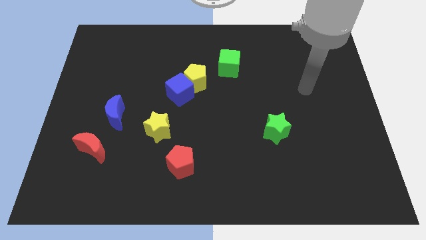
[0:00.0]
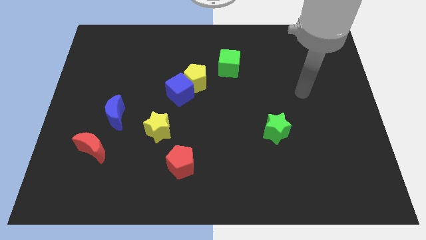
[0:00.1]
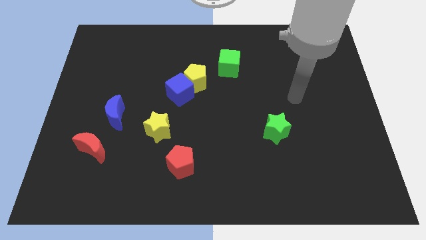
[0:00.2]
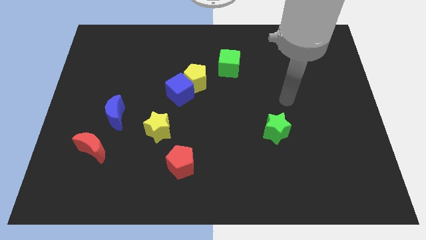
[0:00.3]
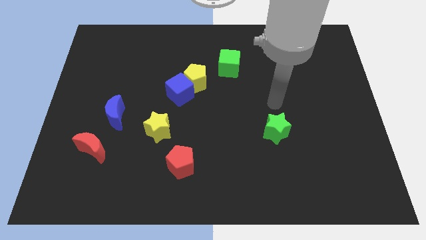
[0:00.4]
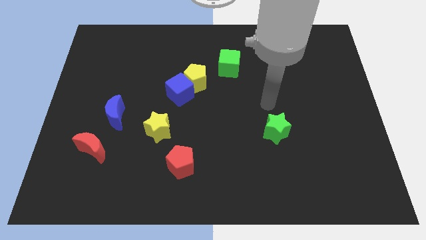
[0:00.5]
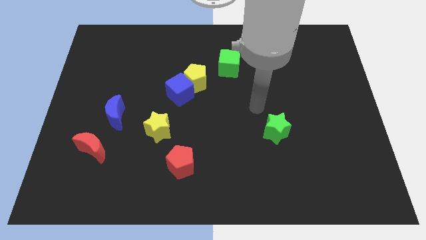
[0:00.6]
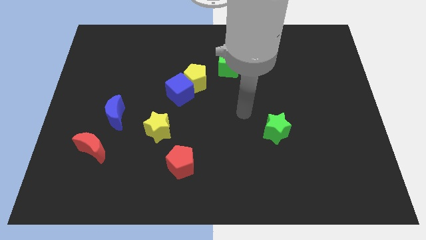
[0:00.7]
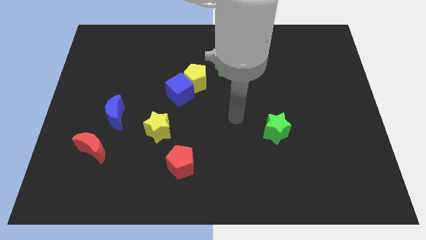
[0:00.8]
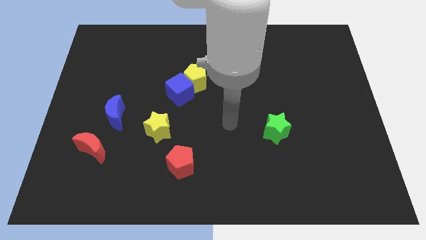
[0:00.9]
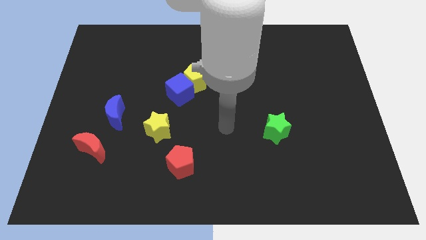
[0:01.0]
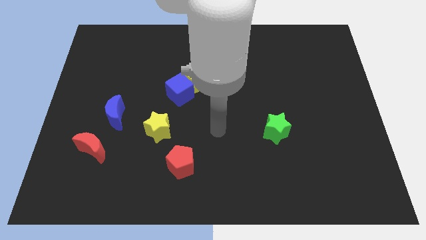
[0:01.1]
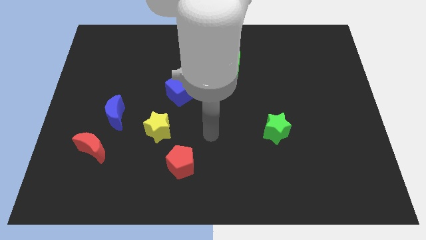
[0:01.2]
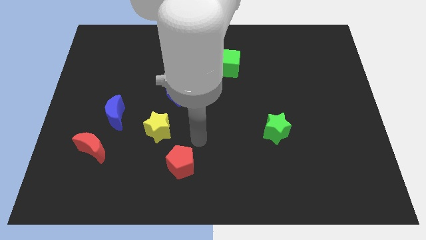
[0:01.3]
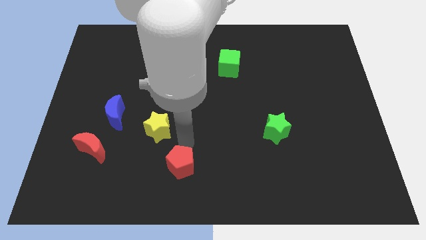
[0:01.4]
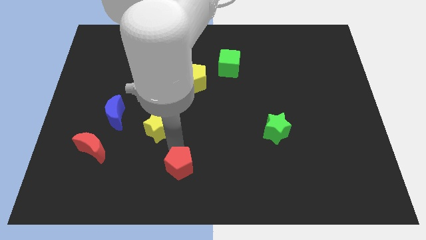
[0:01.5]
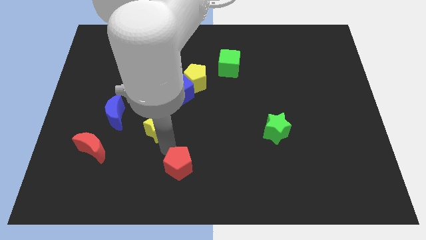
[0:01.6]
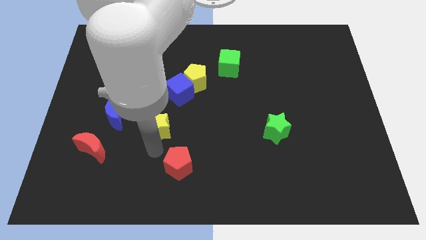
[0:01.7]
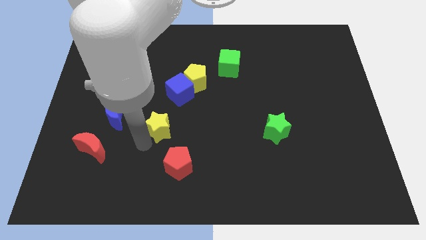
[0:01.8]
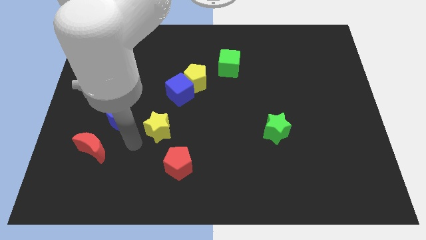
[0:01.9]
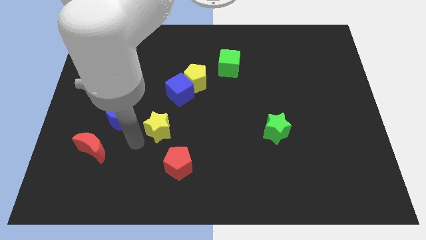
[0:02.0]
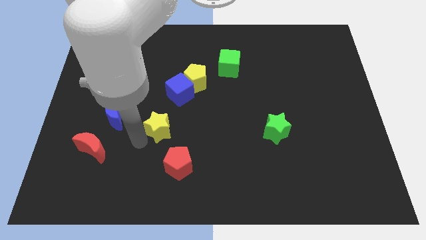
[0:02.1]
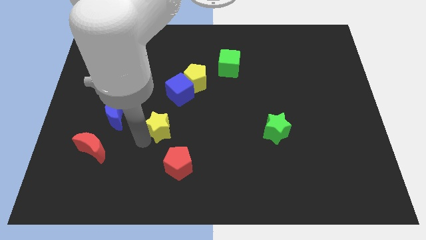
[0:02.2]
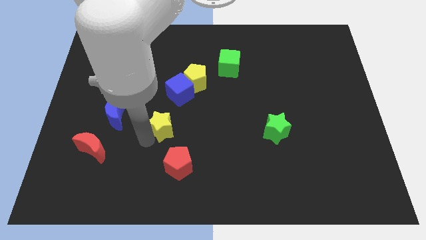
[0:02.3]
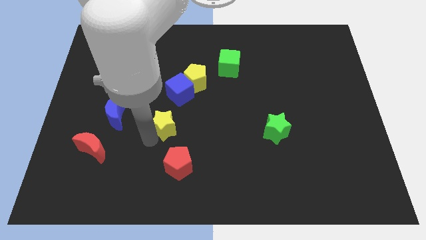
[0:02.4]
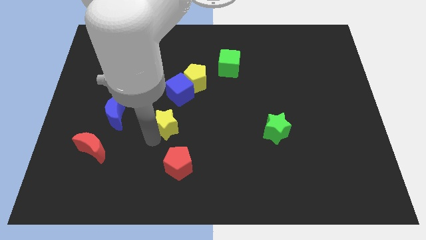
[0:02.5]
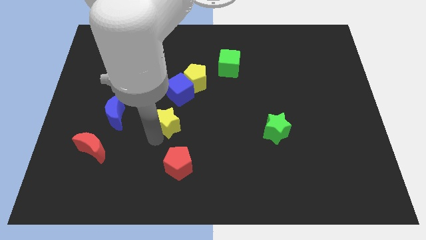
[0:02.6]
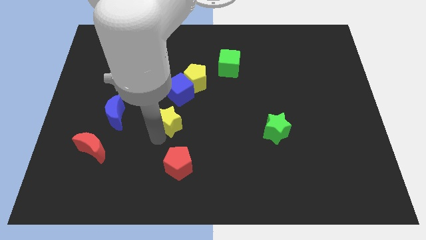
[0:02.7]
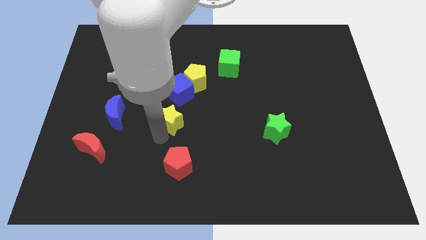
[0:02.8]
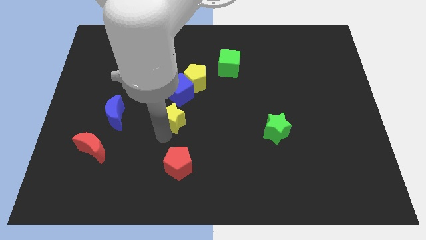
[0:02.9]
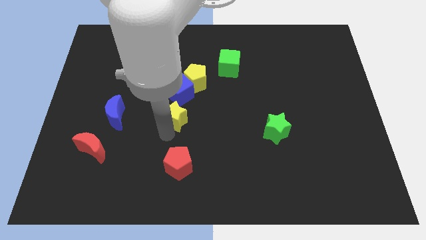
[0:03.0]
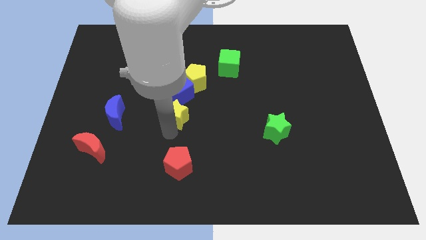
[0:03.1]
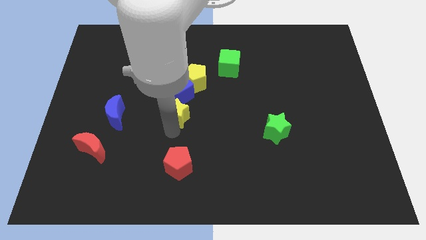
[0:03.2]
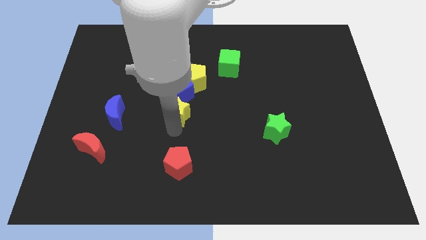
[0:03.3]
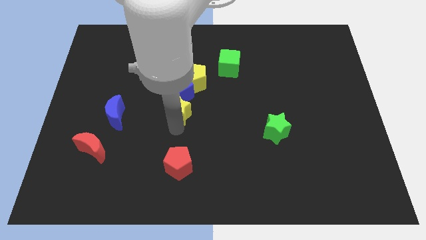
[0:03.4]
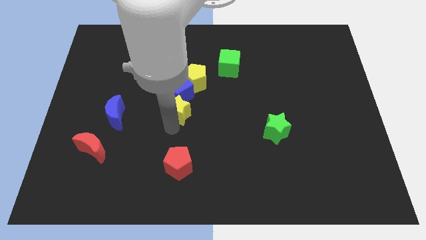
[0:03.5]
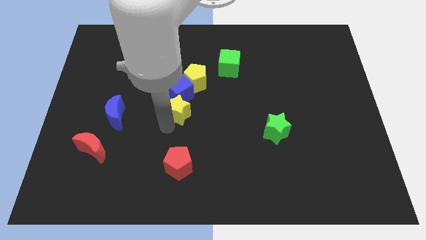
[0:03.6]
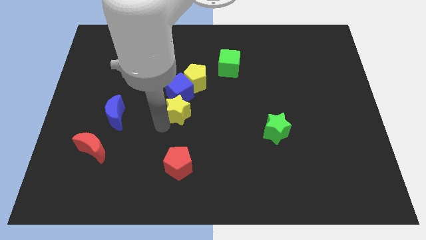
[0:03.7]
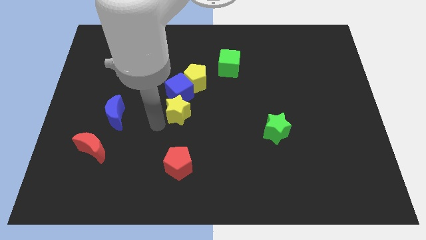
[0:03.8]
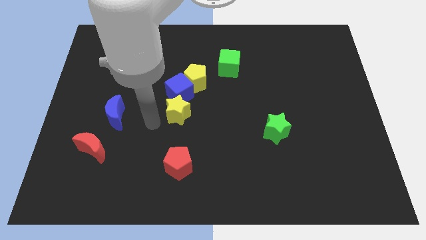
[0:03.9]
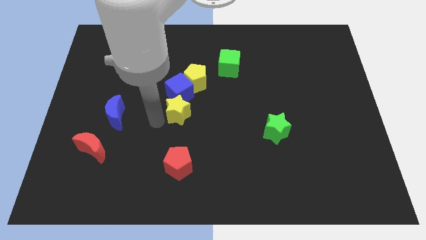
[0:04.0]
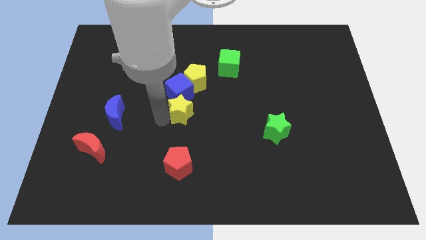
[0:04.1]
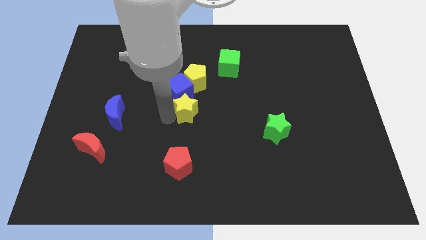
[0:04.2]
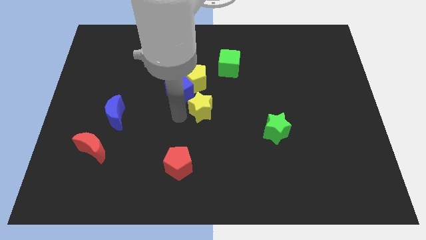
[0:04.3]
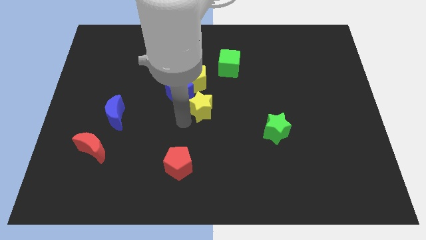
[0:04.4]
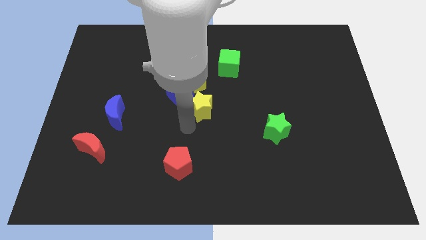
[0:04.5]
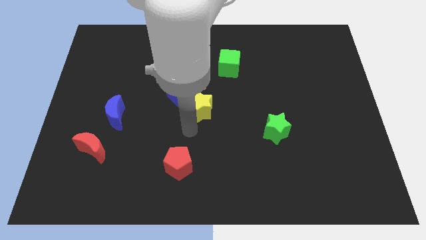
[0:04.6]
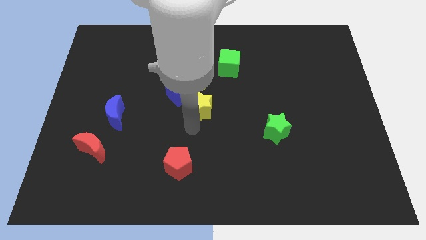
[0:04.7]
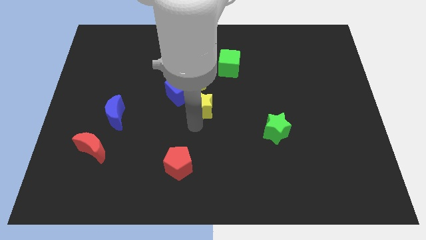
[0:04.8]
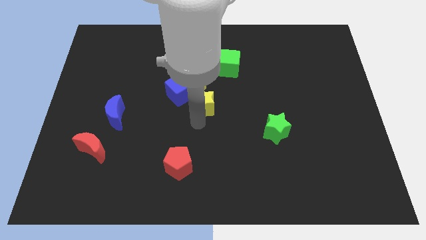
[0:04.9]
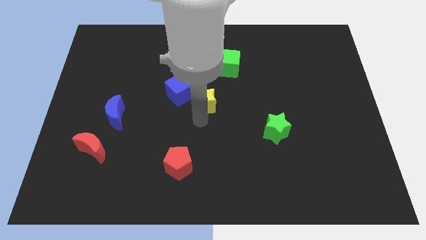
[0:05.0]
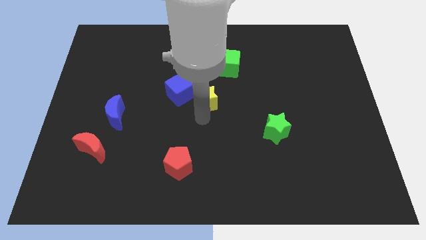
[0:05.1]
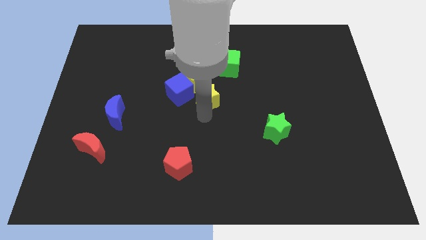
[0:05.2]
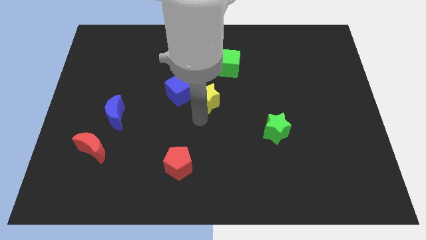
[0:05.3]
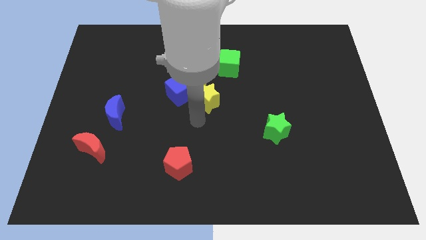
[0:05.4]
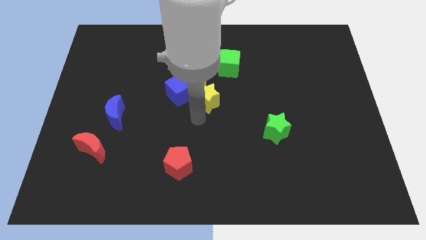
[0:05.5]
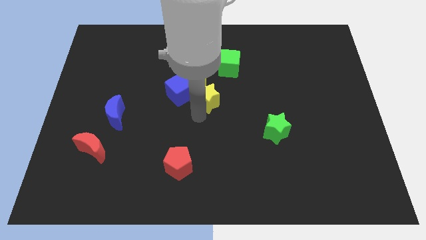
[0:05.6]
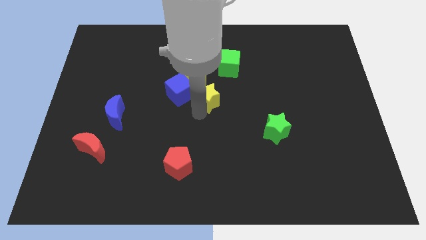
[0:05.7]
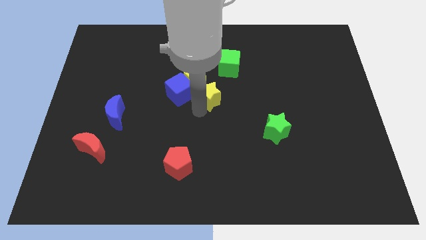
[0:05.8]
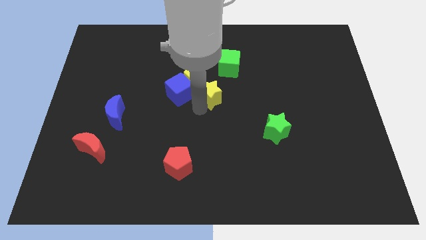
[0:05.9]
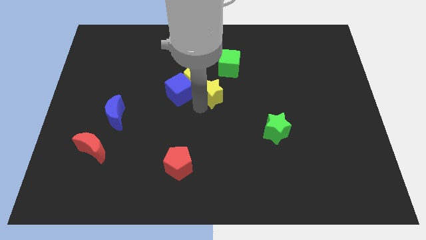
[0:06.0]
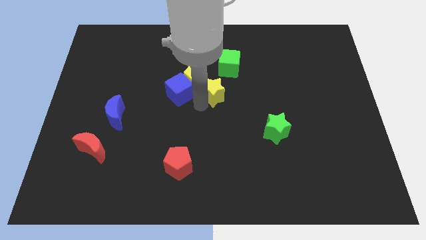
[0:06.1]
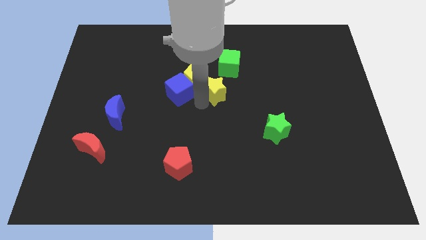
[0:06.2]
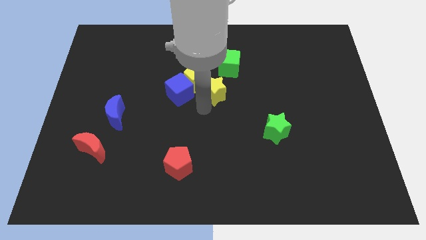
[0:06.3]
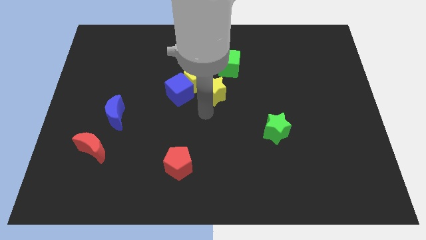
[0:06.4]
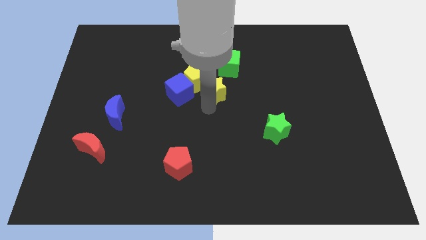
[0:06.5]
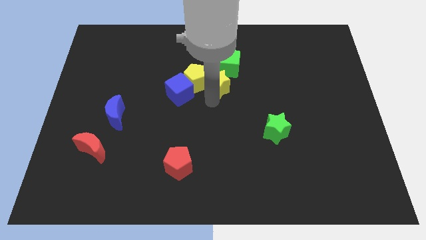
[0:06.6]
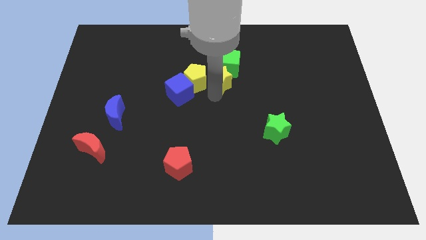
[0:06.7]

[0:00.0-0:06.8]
slide the yellow star to the green cube
